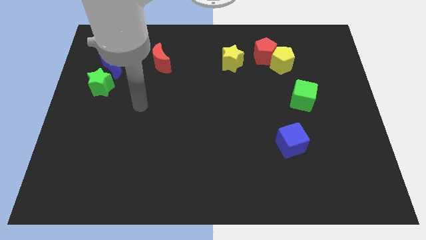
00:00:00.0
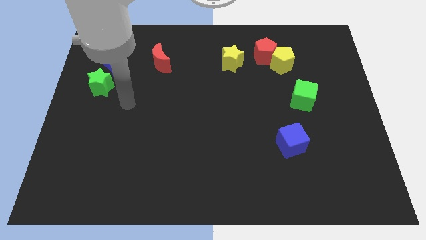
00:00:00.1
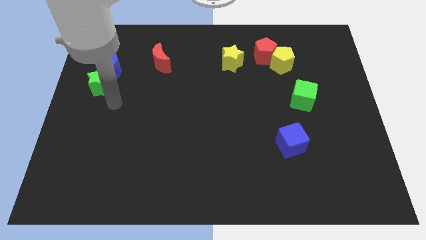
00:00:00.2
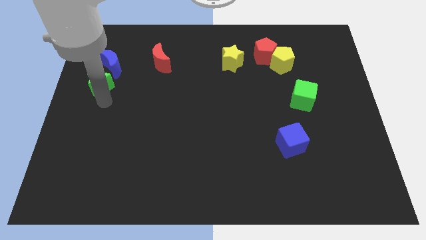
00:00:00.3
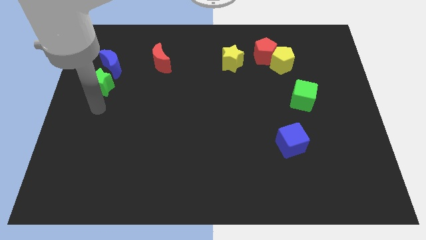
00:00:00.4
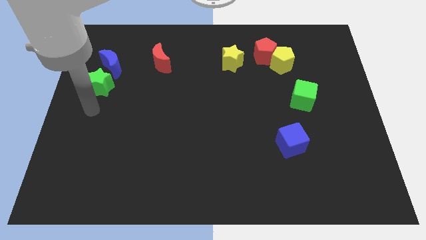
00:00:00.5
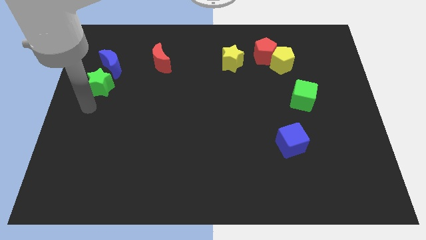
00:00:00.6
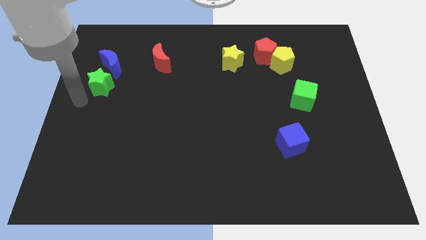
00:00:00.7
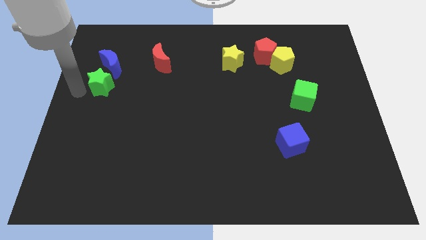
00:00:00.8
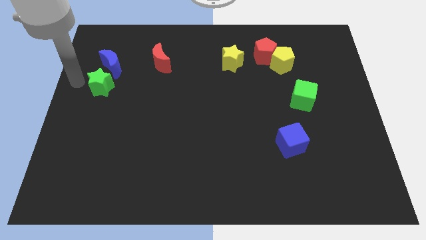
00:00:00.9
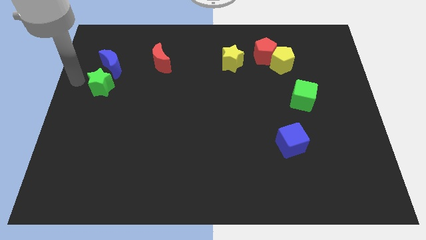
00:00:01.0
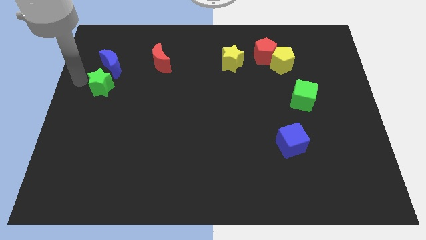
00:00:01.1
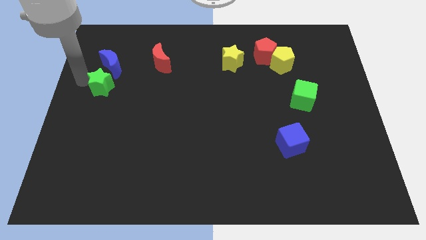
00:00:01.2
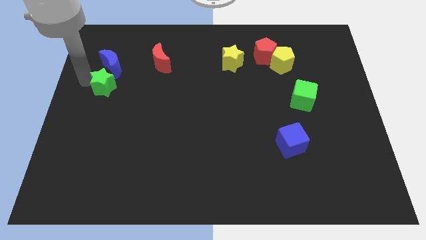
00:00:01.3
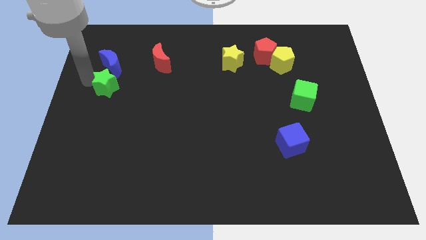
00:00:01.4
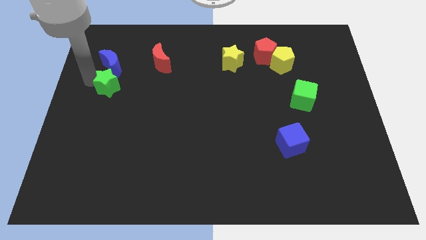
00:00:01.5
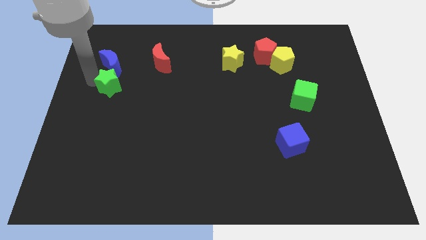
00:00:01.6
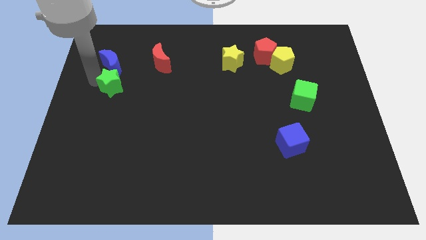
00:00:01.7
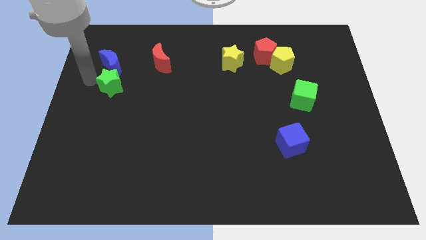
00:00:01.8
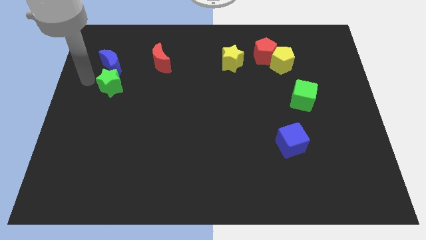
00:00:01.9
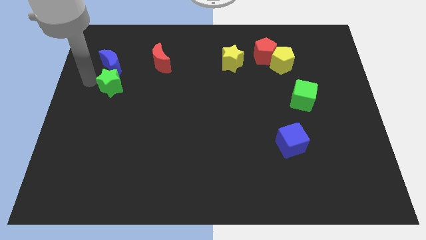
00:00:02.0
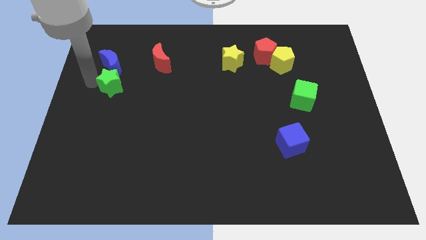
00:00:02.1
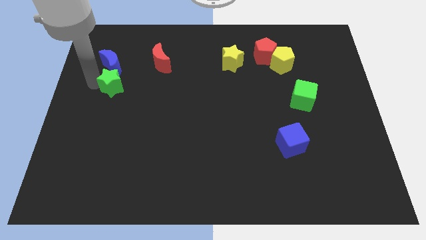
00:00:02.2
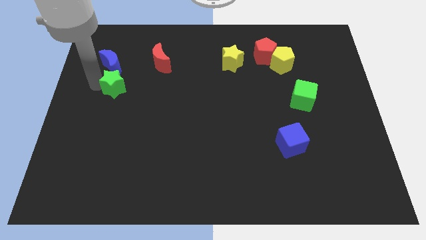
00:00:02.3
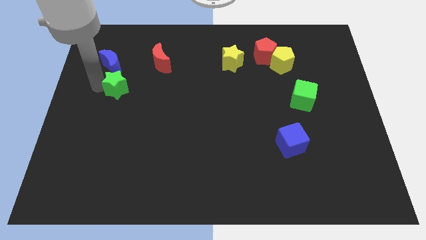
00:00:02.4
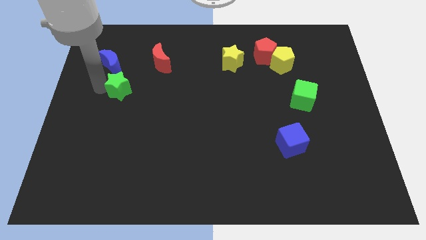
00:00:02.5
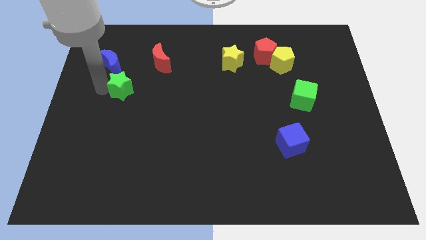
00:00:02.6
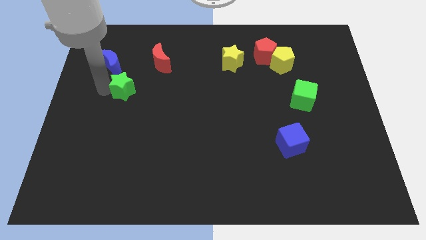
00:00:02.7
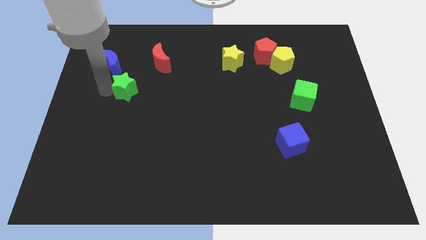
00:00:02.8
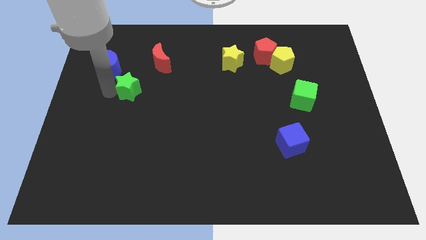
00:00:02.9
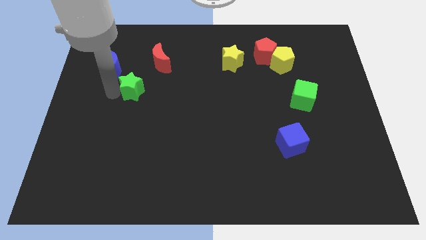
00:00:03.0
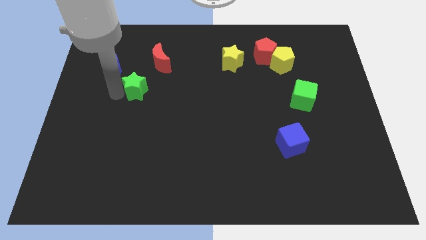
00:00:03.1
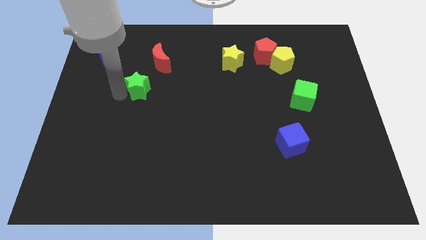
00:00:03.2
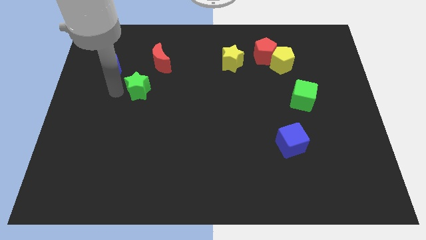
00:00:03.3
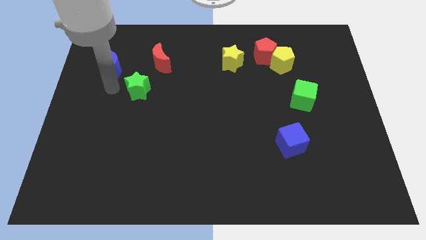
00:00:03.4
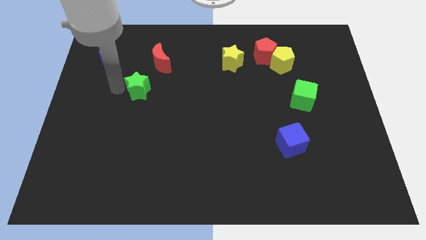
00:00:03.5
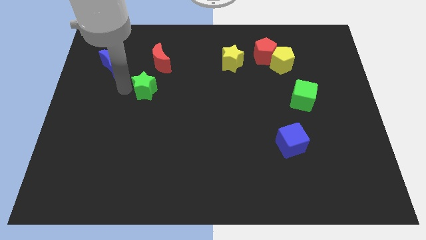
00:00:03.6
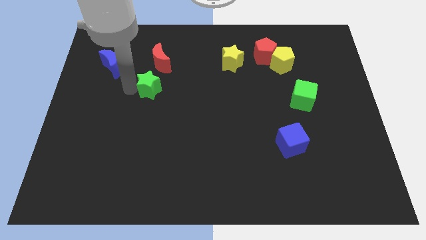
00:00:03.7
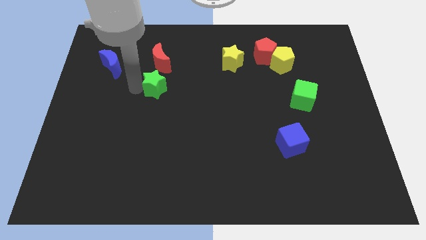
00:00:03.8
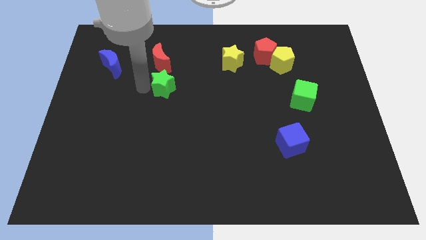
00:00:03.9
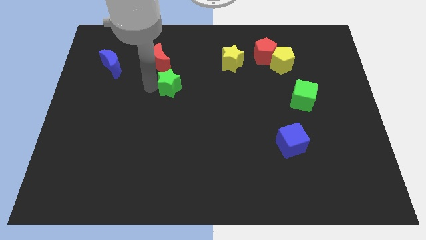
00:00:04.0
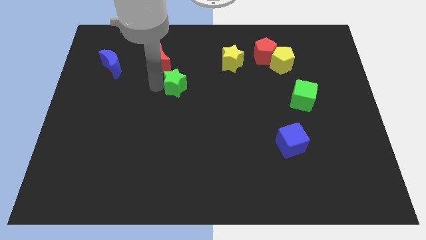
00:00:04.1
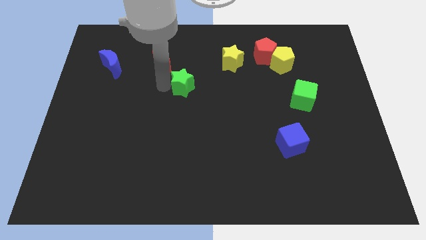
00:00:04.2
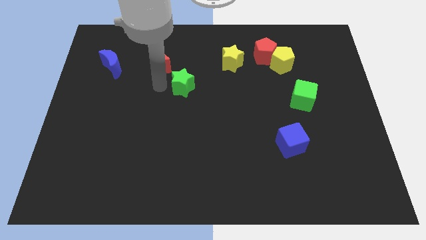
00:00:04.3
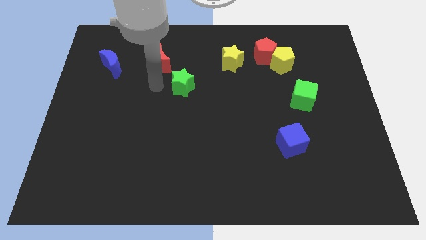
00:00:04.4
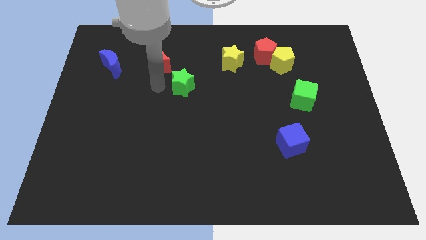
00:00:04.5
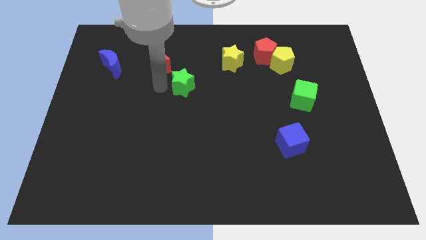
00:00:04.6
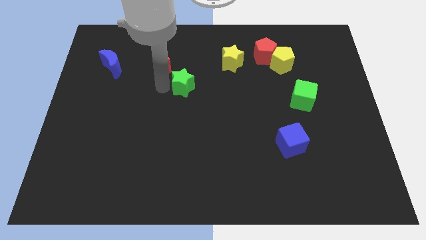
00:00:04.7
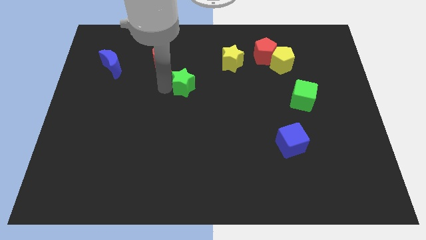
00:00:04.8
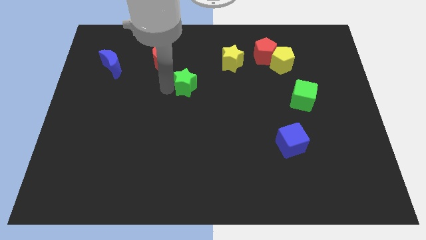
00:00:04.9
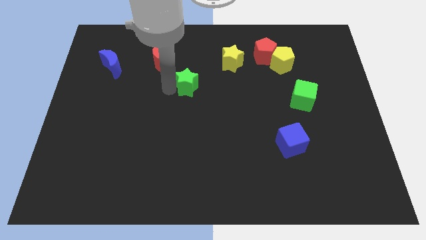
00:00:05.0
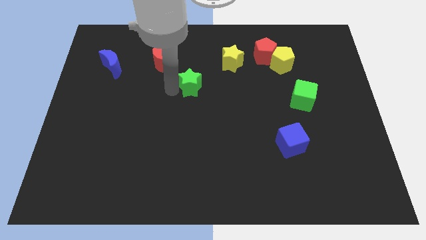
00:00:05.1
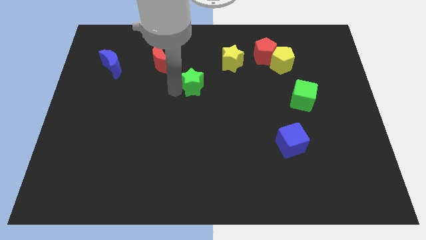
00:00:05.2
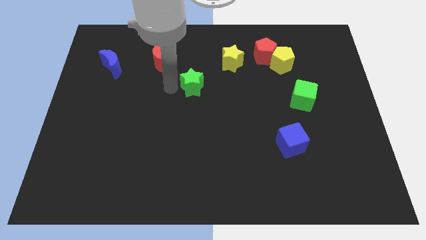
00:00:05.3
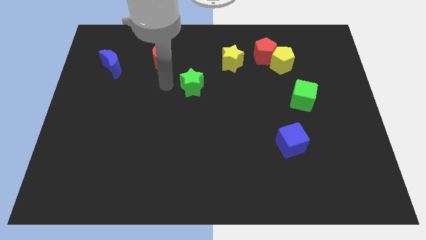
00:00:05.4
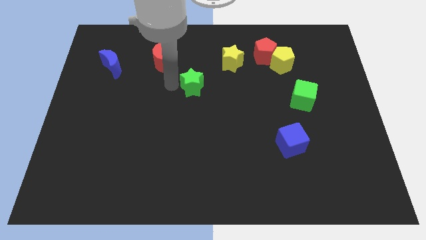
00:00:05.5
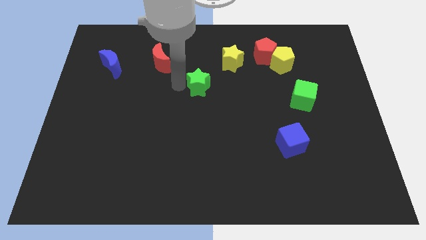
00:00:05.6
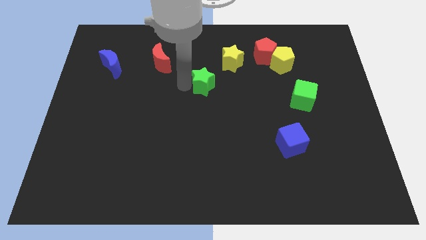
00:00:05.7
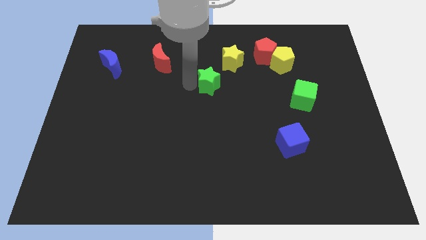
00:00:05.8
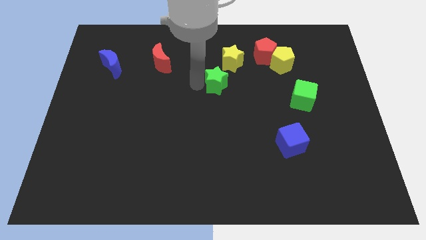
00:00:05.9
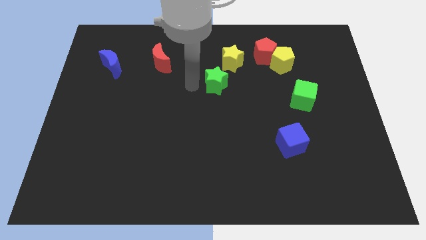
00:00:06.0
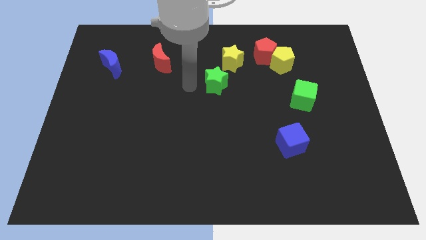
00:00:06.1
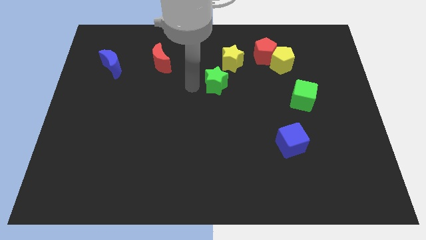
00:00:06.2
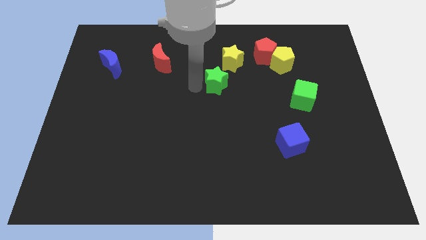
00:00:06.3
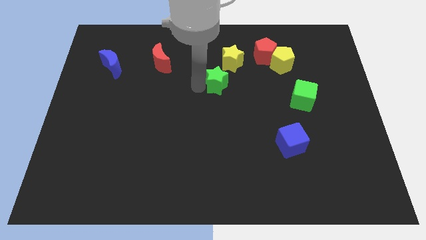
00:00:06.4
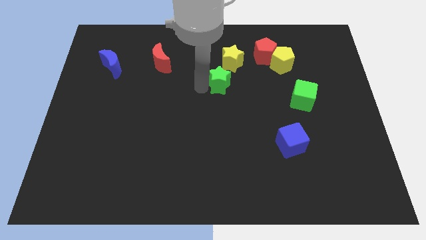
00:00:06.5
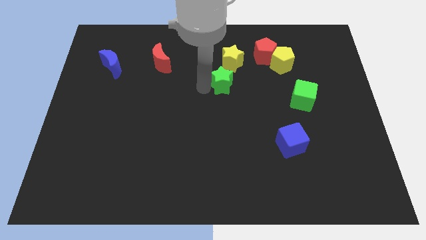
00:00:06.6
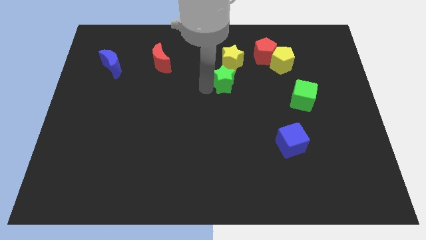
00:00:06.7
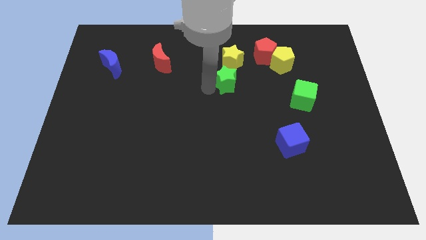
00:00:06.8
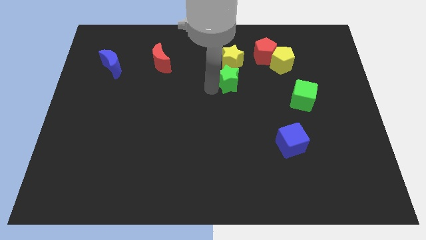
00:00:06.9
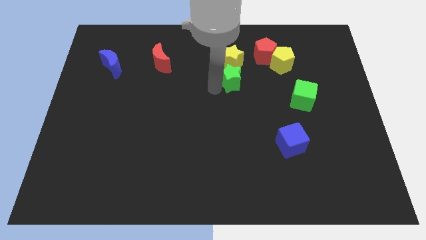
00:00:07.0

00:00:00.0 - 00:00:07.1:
move the green star to the bottom right of the yellow star
